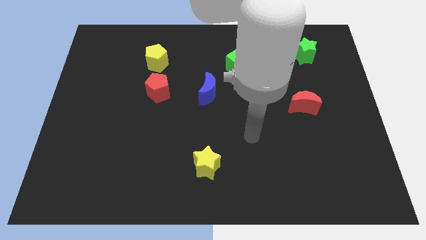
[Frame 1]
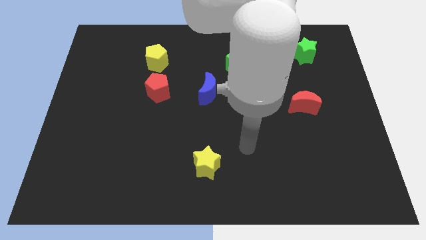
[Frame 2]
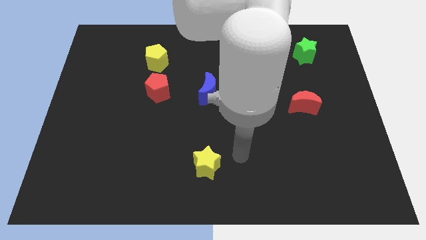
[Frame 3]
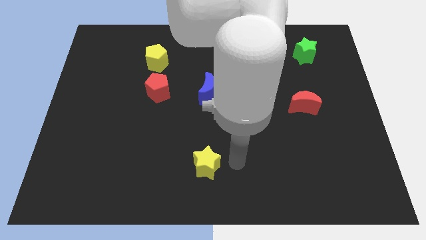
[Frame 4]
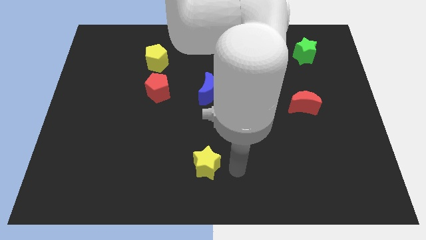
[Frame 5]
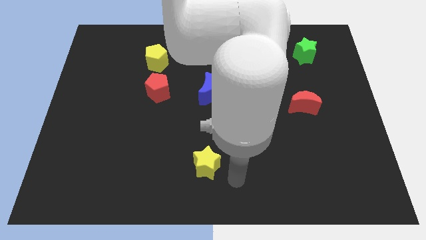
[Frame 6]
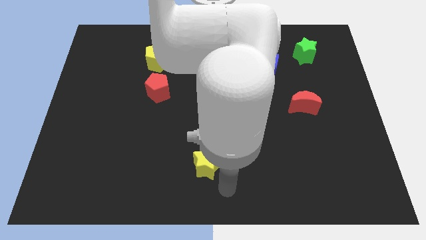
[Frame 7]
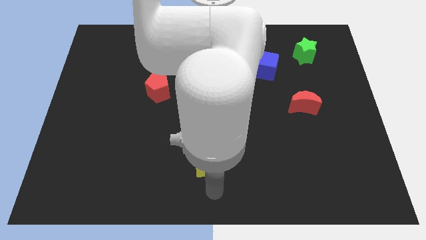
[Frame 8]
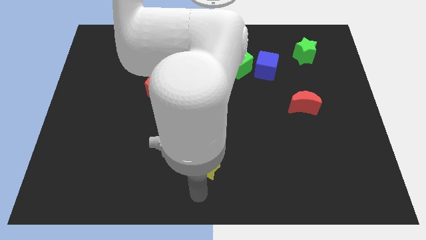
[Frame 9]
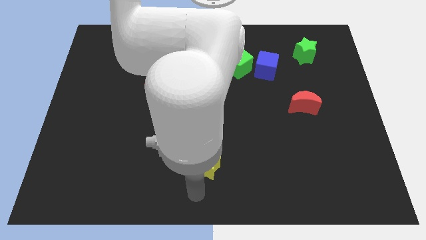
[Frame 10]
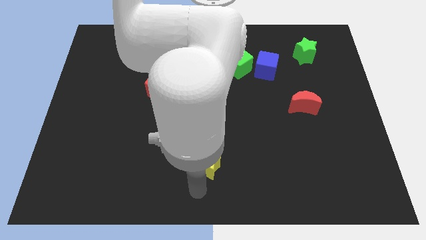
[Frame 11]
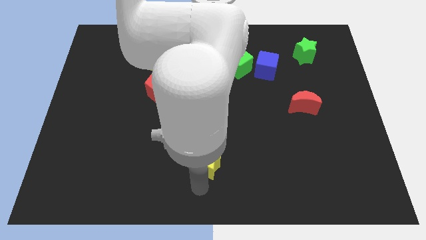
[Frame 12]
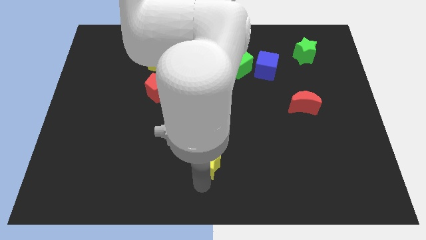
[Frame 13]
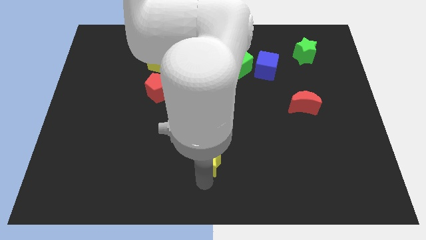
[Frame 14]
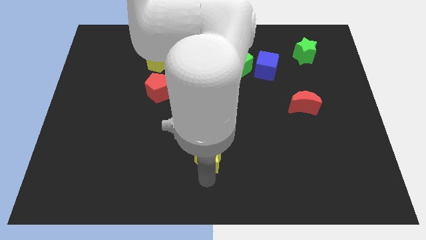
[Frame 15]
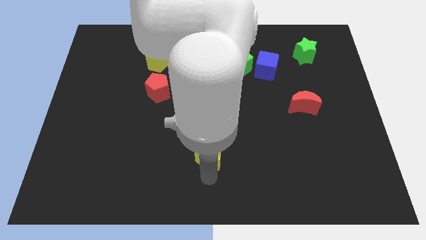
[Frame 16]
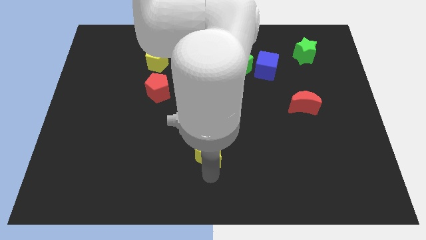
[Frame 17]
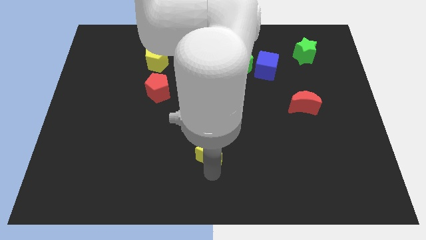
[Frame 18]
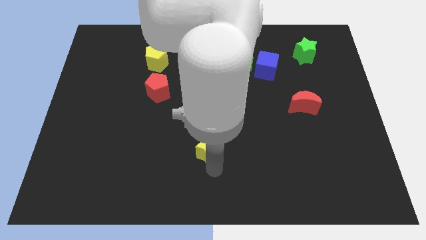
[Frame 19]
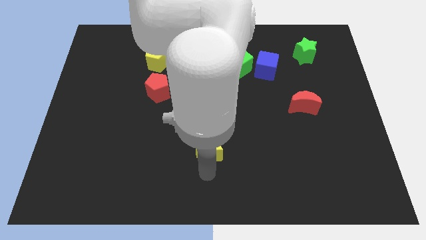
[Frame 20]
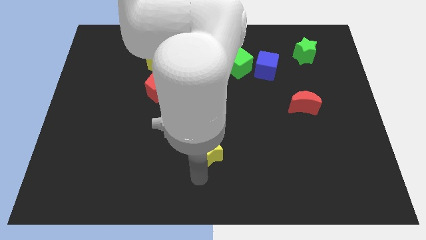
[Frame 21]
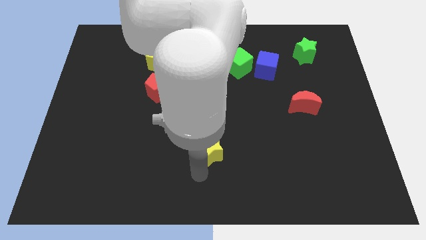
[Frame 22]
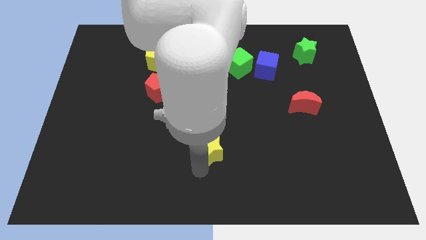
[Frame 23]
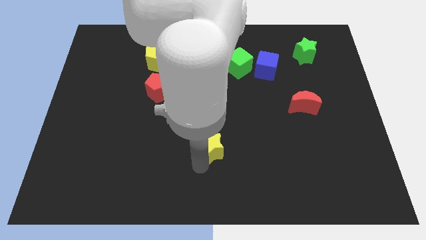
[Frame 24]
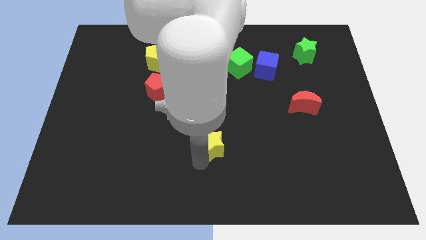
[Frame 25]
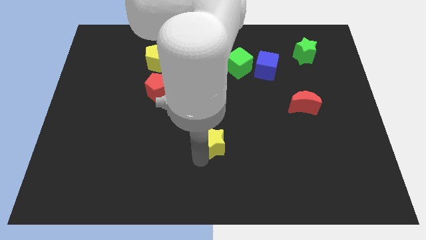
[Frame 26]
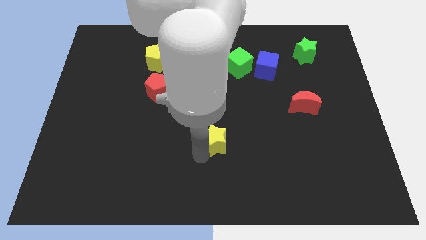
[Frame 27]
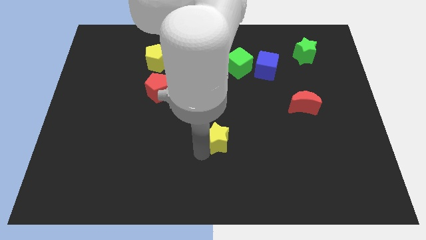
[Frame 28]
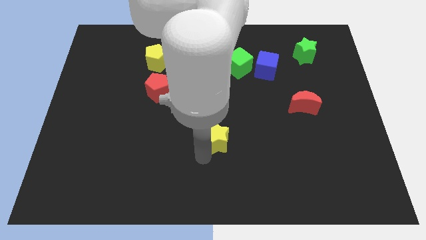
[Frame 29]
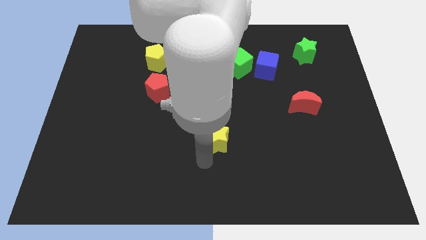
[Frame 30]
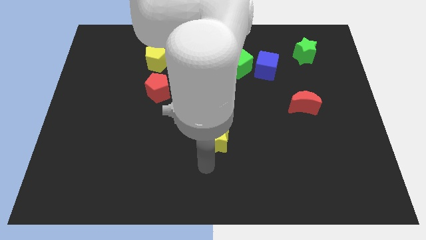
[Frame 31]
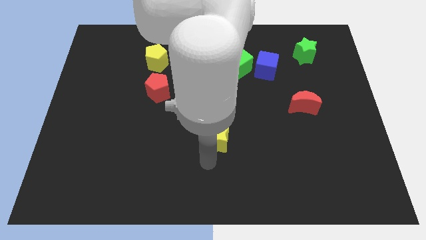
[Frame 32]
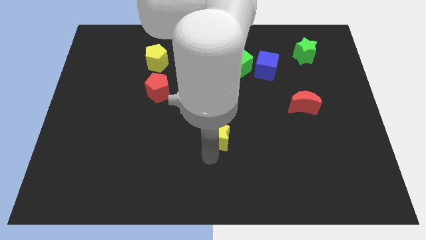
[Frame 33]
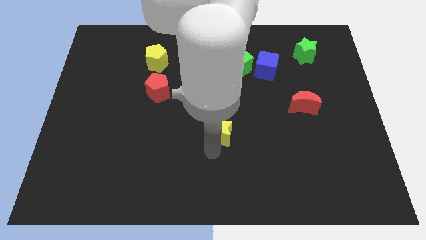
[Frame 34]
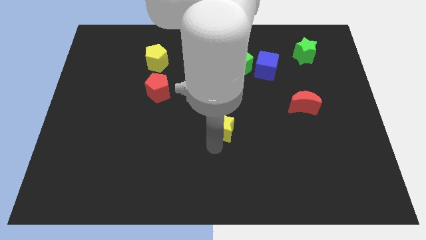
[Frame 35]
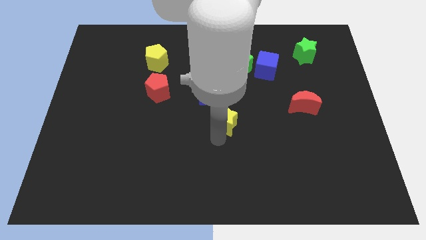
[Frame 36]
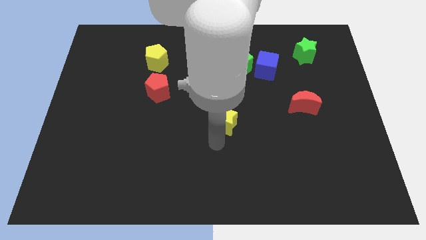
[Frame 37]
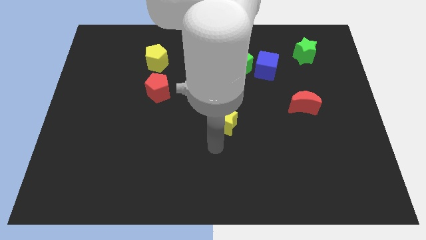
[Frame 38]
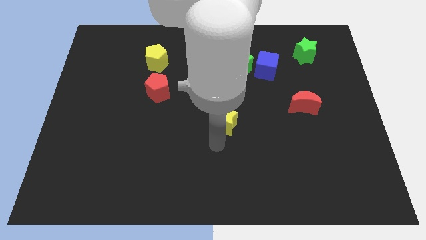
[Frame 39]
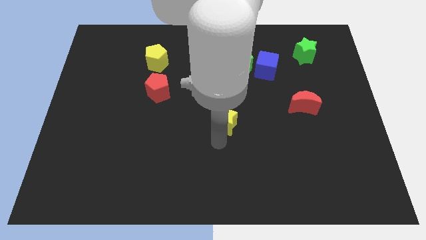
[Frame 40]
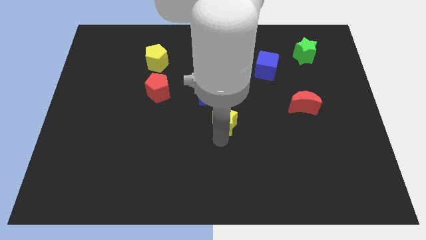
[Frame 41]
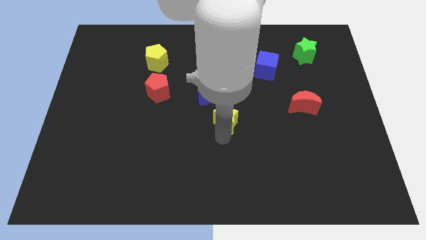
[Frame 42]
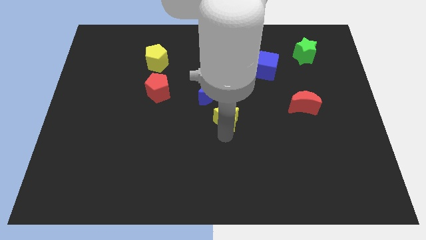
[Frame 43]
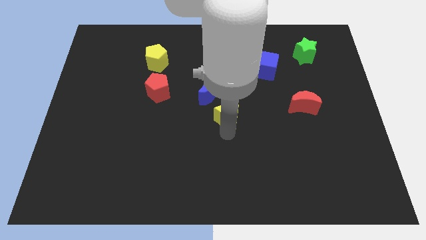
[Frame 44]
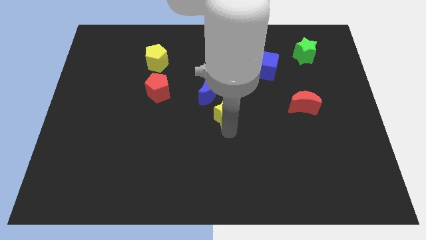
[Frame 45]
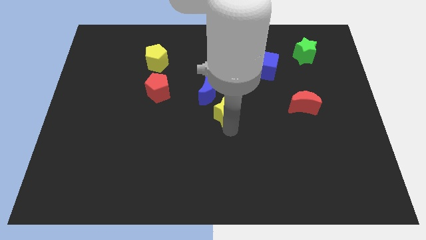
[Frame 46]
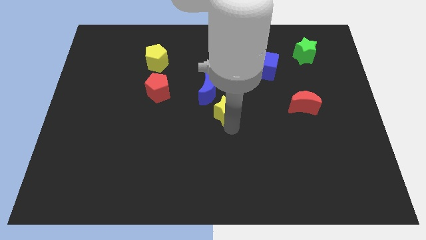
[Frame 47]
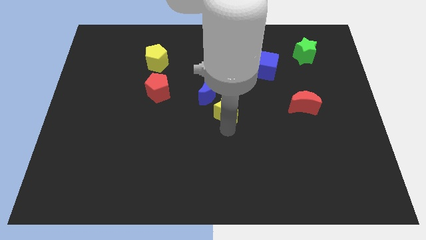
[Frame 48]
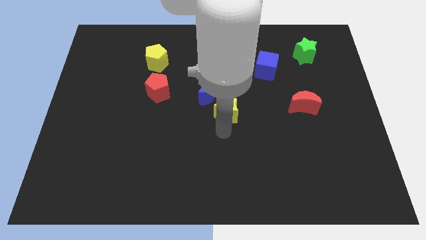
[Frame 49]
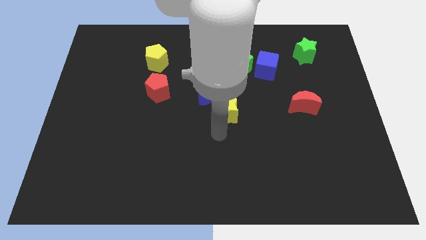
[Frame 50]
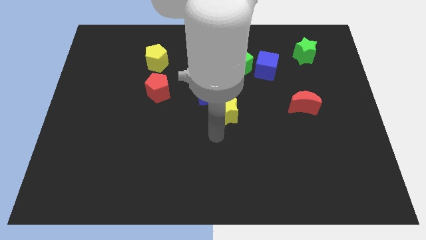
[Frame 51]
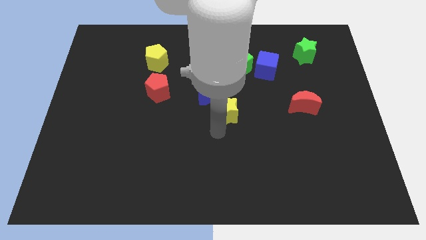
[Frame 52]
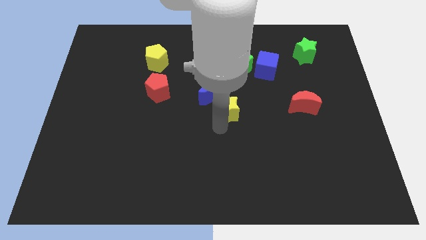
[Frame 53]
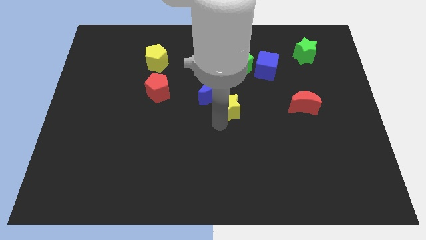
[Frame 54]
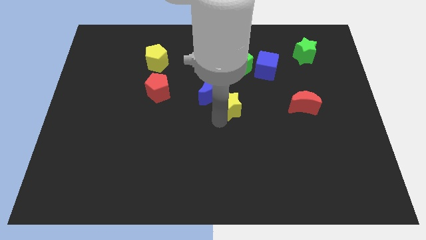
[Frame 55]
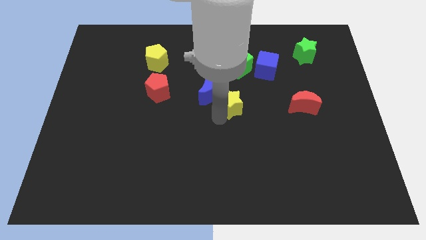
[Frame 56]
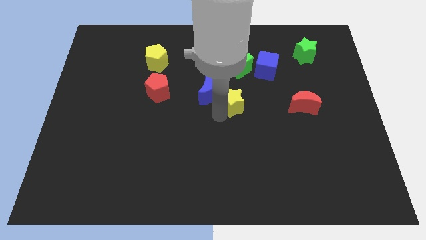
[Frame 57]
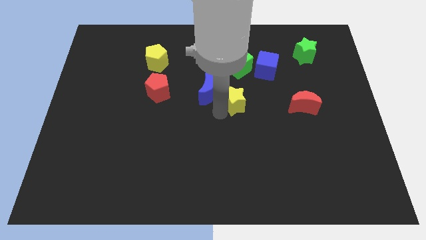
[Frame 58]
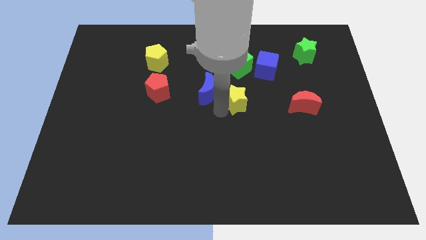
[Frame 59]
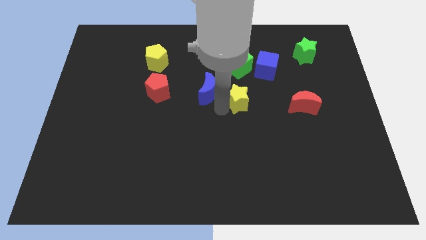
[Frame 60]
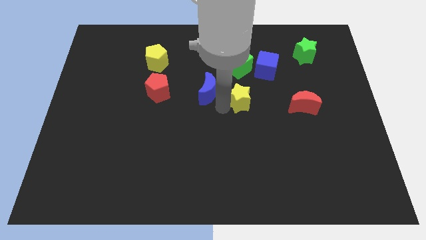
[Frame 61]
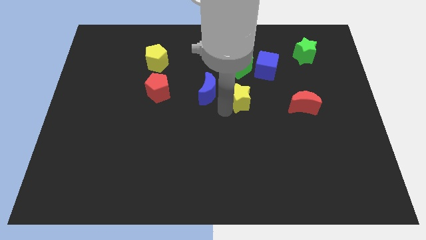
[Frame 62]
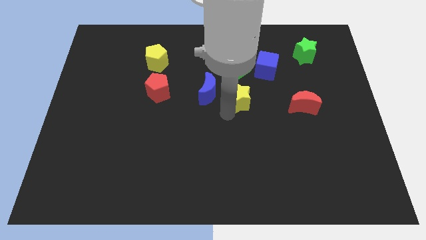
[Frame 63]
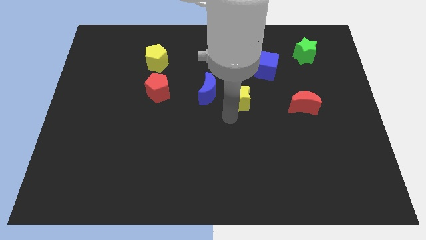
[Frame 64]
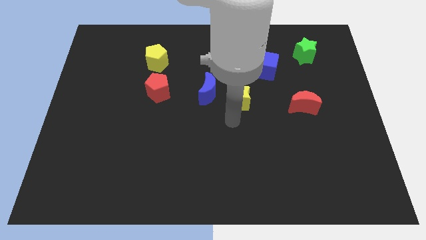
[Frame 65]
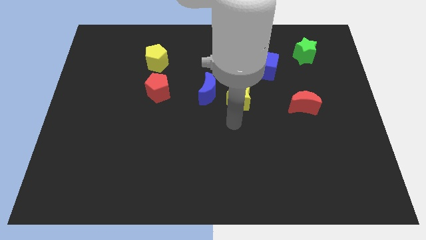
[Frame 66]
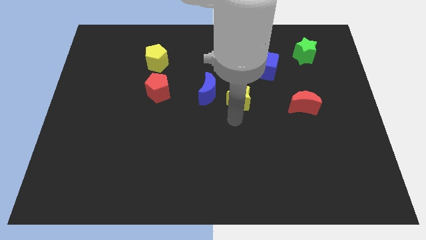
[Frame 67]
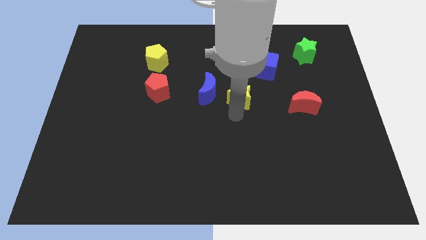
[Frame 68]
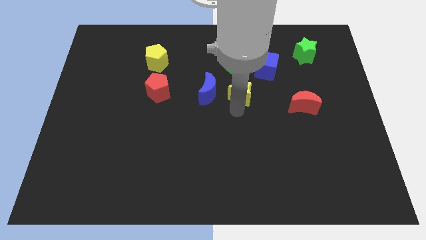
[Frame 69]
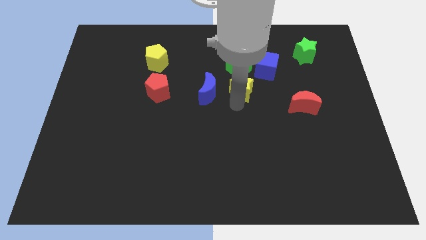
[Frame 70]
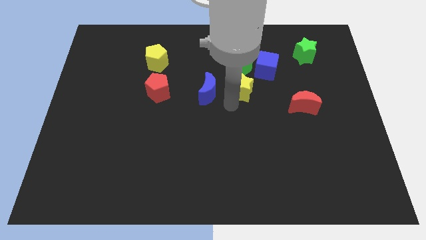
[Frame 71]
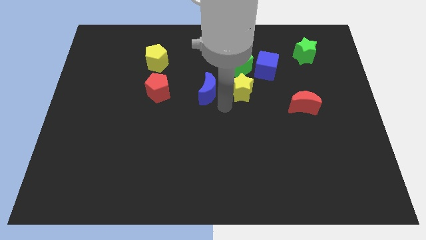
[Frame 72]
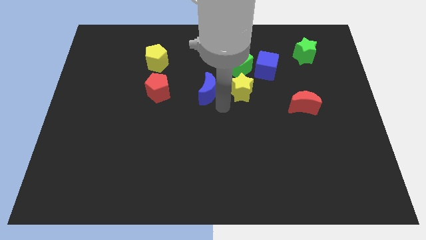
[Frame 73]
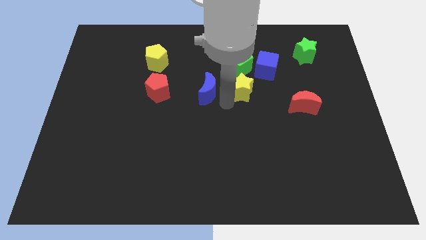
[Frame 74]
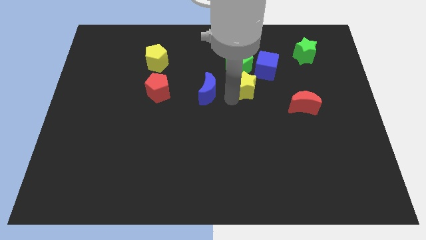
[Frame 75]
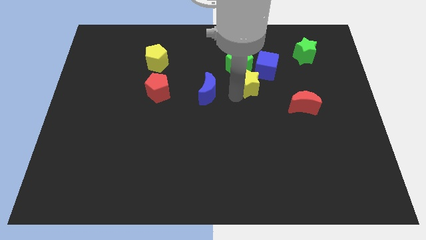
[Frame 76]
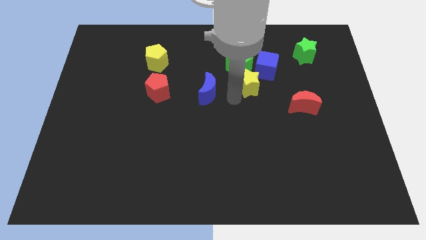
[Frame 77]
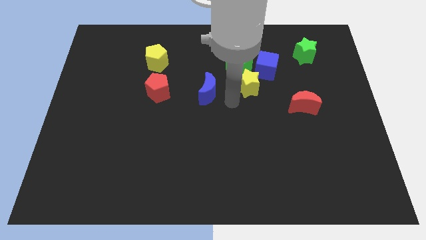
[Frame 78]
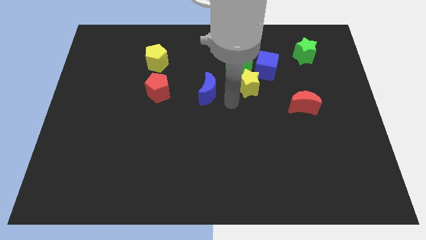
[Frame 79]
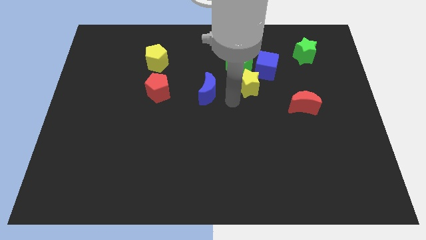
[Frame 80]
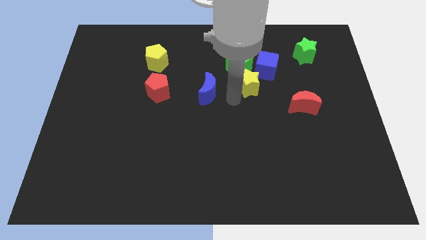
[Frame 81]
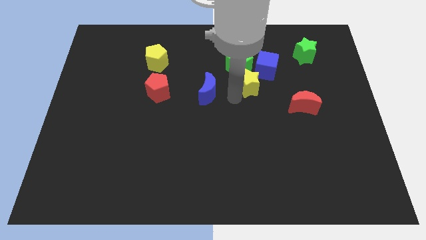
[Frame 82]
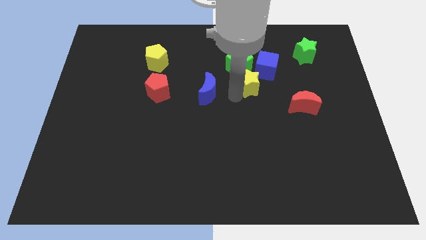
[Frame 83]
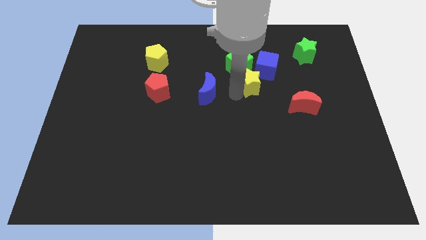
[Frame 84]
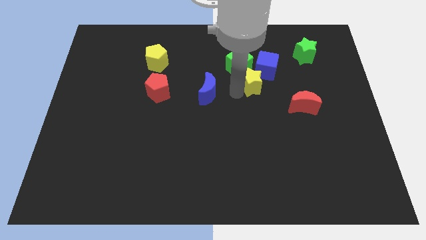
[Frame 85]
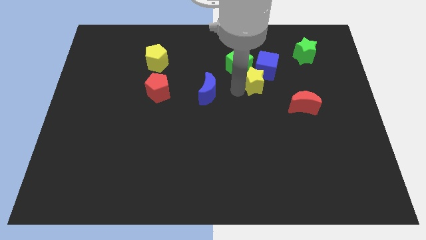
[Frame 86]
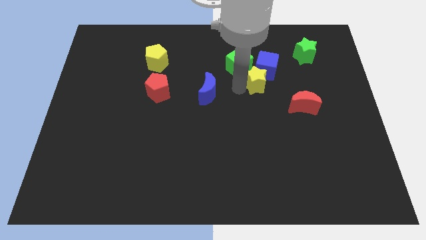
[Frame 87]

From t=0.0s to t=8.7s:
put the yellow star towards the blue cube
